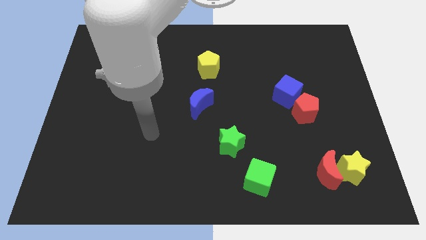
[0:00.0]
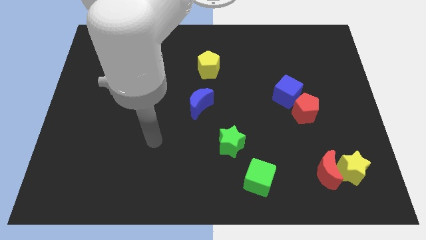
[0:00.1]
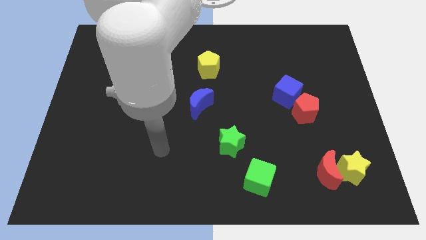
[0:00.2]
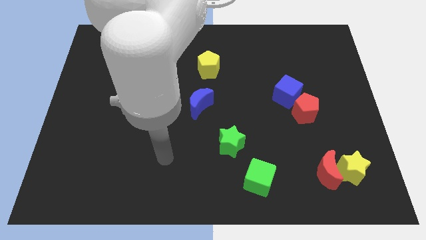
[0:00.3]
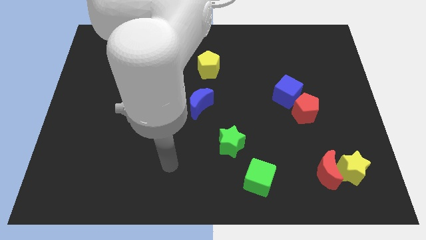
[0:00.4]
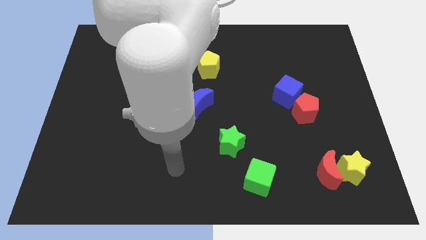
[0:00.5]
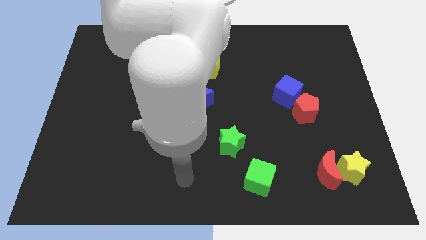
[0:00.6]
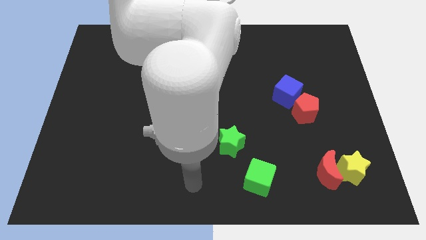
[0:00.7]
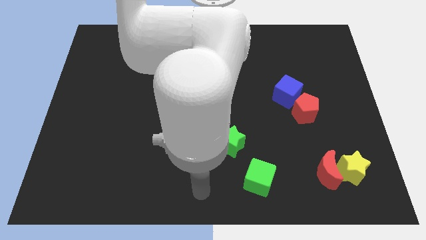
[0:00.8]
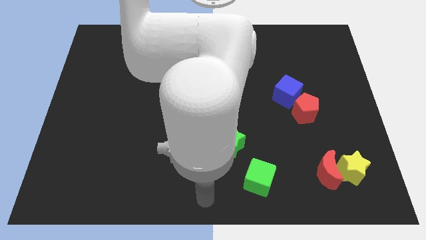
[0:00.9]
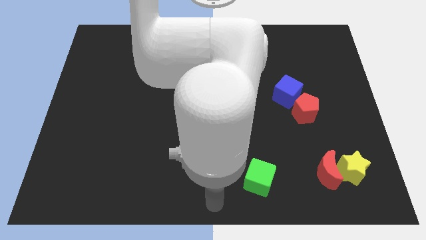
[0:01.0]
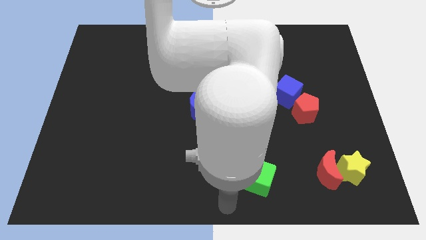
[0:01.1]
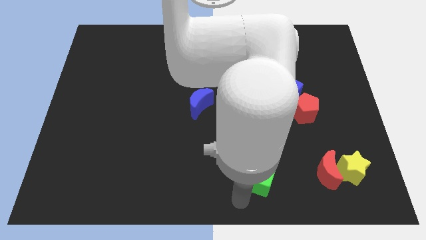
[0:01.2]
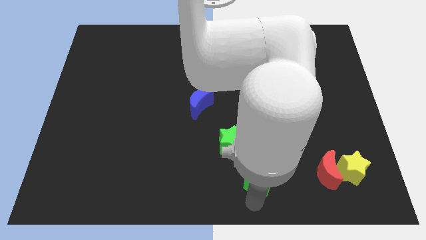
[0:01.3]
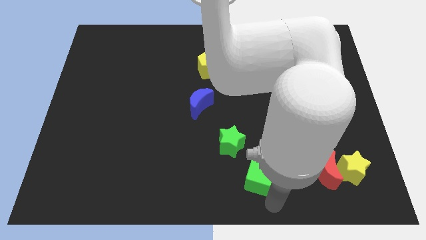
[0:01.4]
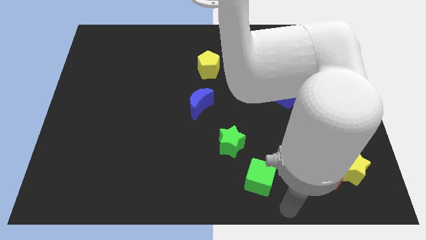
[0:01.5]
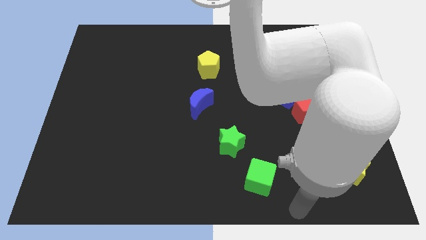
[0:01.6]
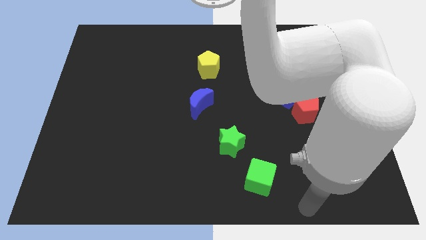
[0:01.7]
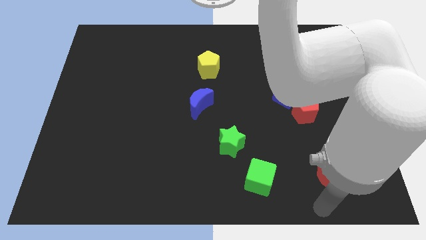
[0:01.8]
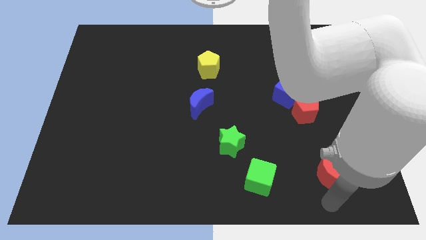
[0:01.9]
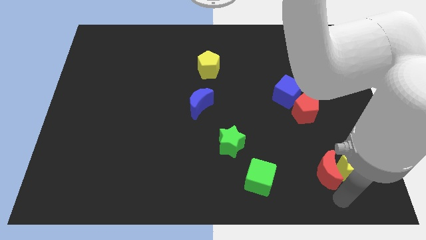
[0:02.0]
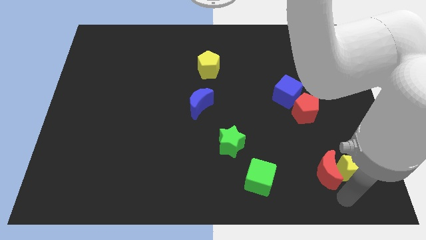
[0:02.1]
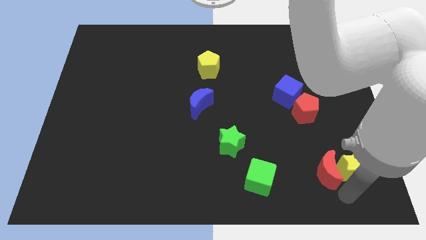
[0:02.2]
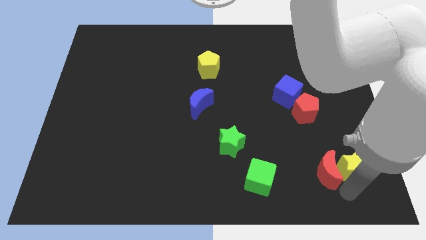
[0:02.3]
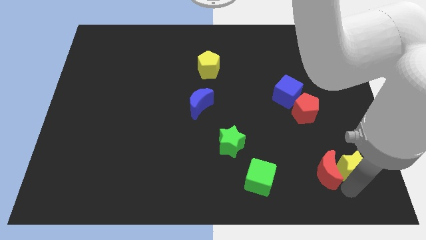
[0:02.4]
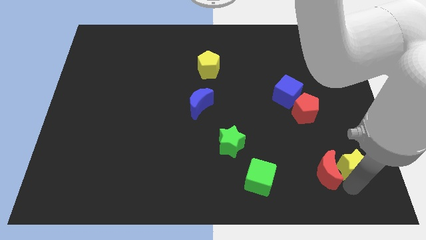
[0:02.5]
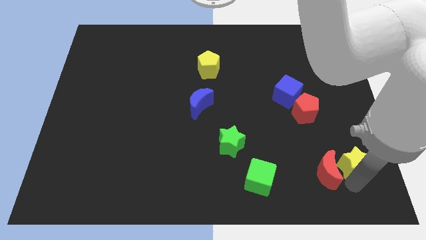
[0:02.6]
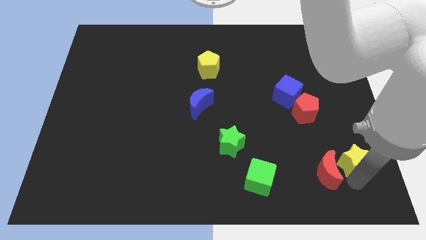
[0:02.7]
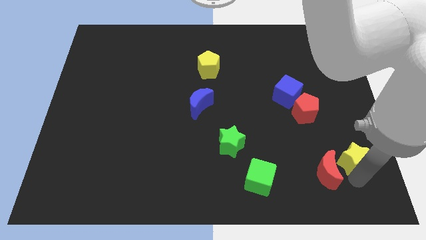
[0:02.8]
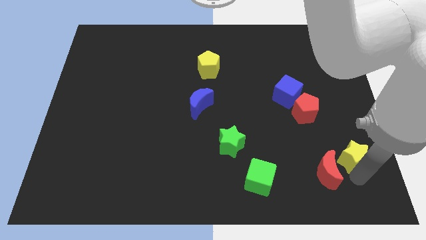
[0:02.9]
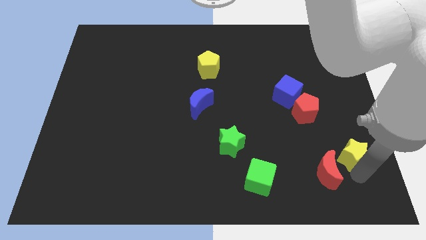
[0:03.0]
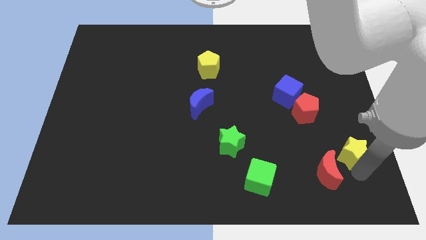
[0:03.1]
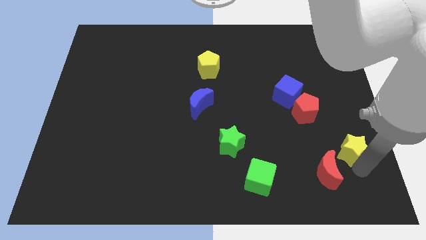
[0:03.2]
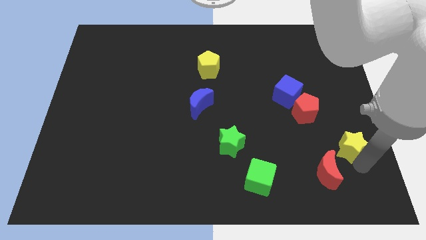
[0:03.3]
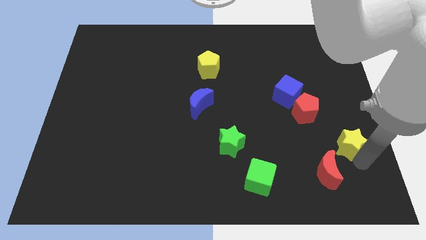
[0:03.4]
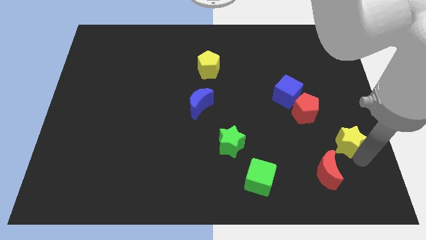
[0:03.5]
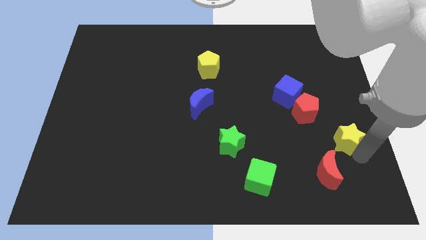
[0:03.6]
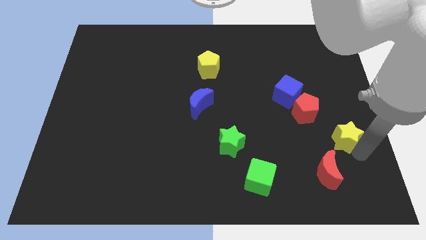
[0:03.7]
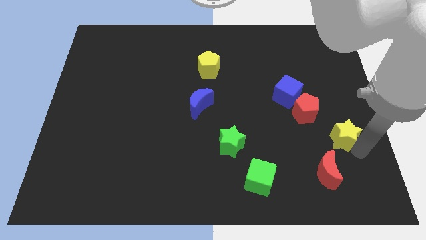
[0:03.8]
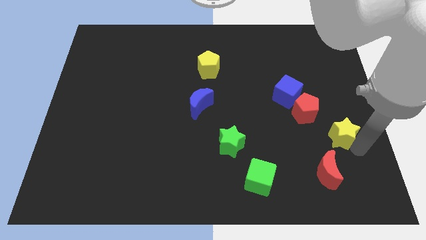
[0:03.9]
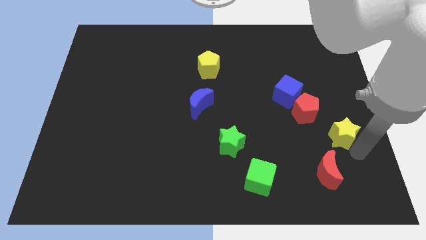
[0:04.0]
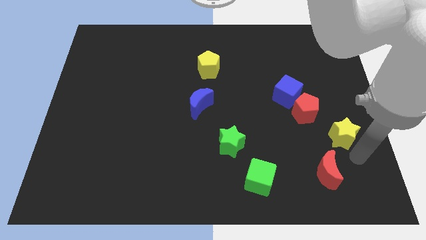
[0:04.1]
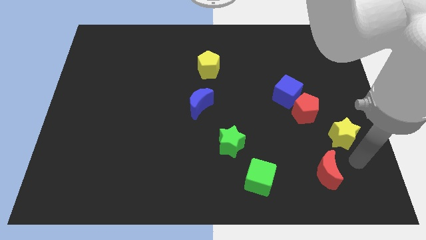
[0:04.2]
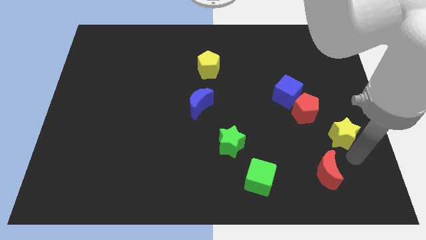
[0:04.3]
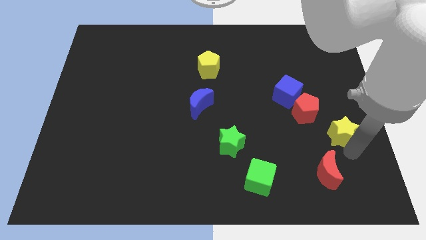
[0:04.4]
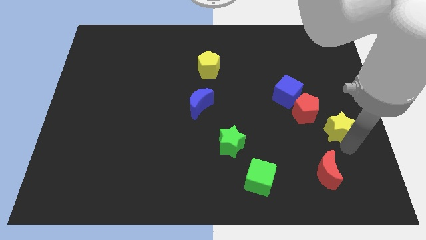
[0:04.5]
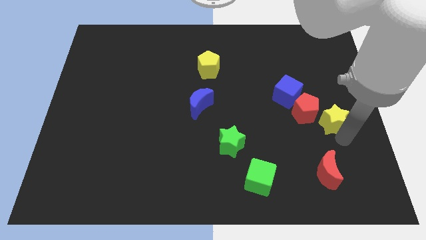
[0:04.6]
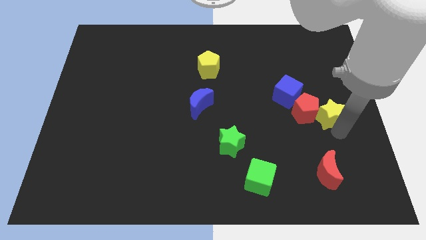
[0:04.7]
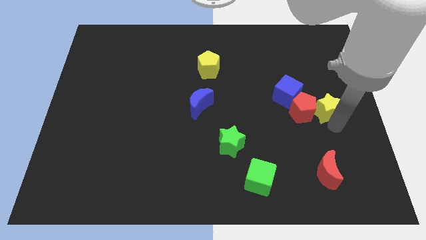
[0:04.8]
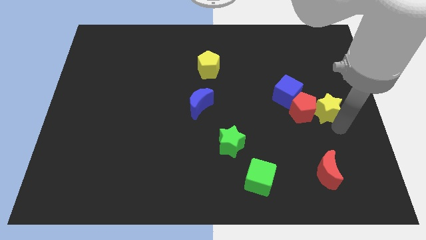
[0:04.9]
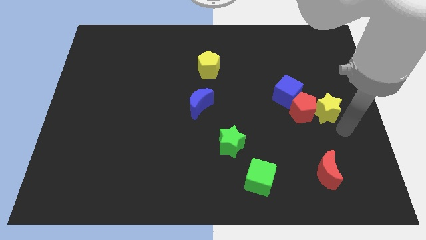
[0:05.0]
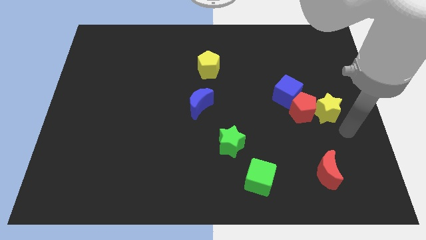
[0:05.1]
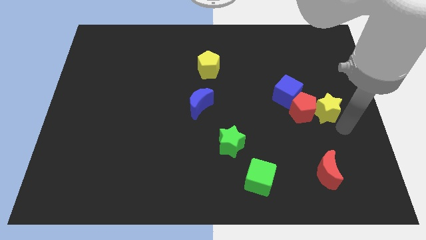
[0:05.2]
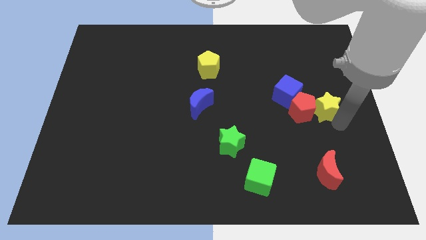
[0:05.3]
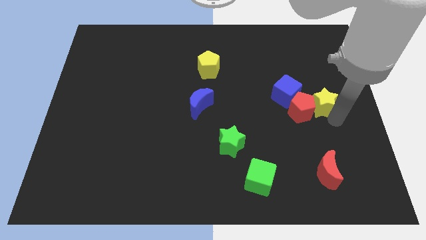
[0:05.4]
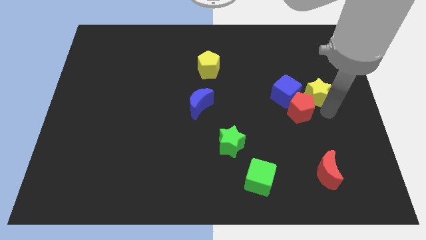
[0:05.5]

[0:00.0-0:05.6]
move the yellow star above the red pentagon

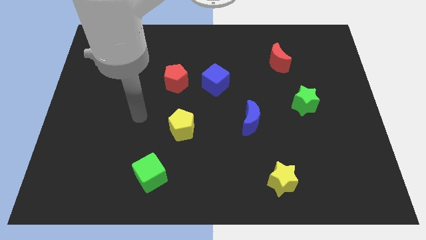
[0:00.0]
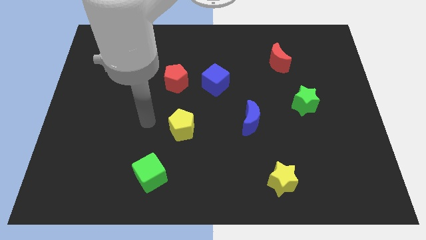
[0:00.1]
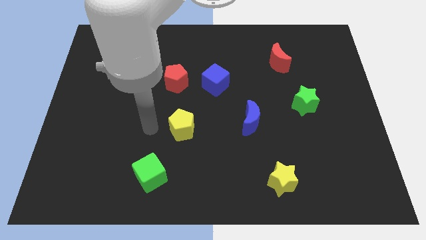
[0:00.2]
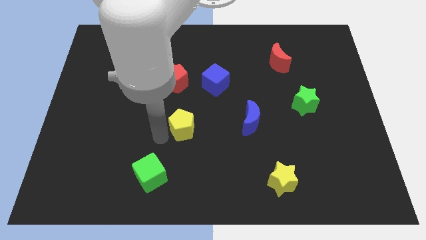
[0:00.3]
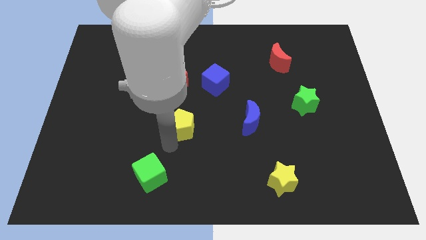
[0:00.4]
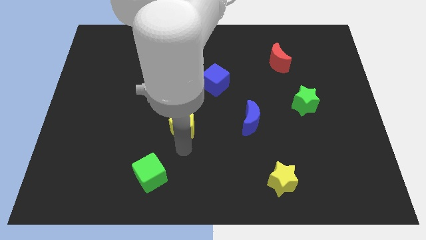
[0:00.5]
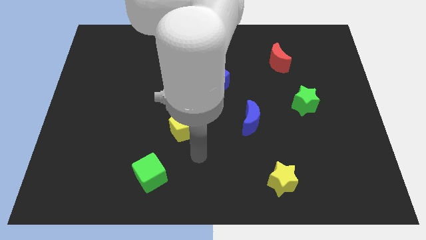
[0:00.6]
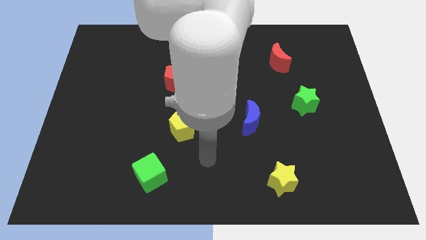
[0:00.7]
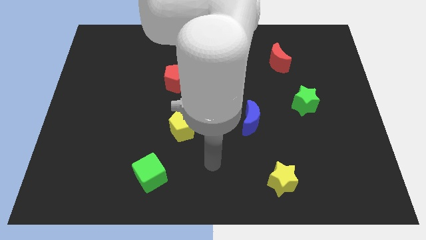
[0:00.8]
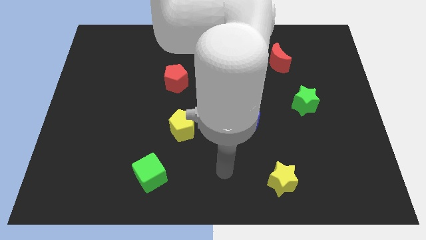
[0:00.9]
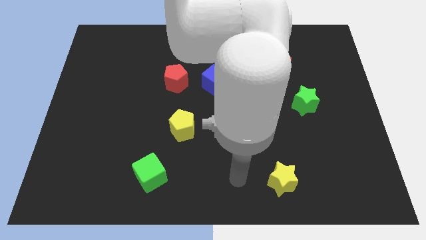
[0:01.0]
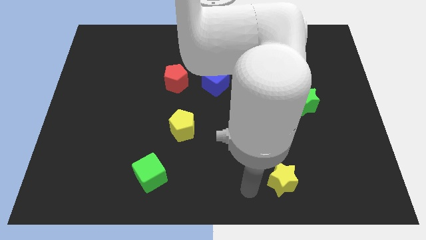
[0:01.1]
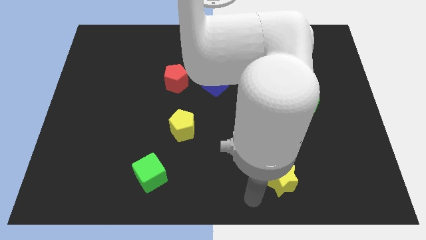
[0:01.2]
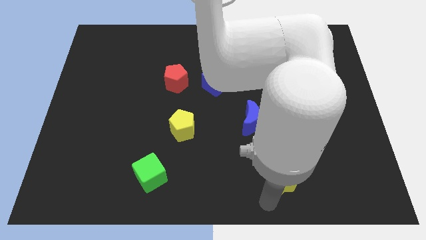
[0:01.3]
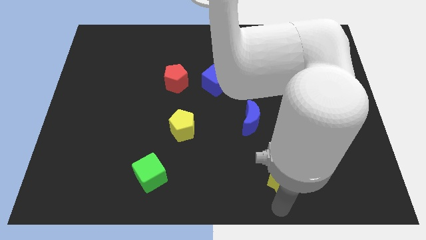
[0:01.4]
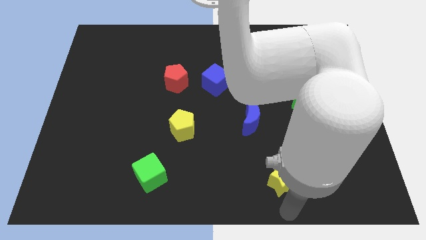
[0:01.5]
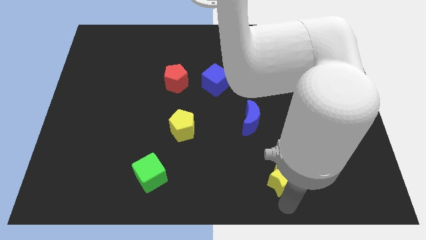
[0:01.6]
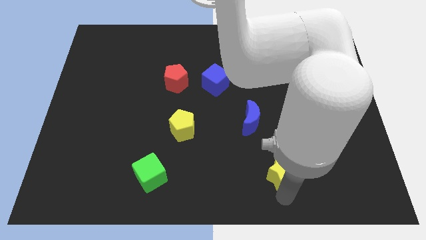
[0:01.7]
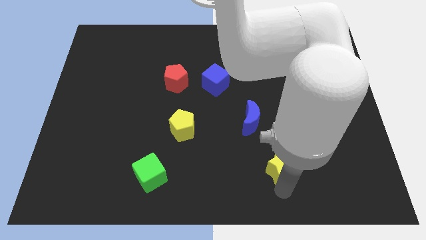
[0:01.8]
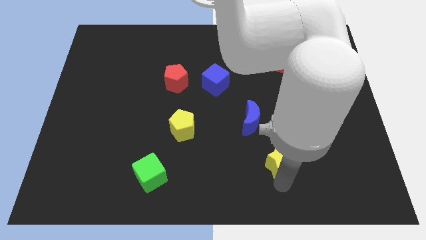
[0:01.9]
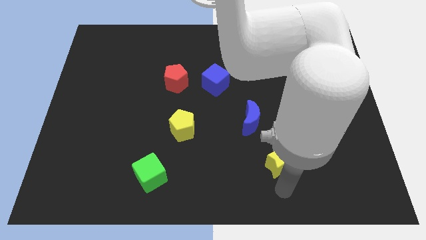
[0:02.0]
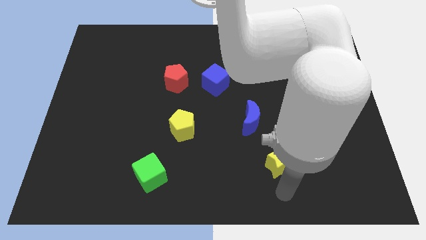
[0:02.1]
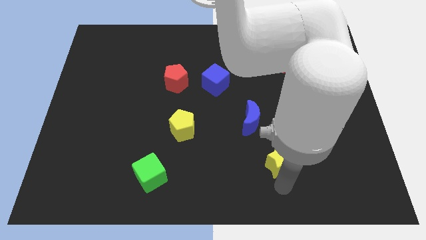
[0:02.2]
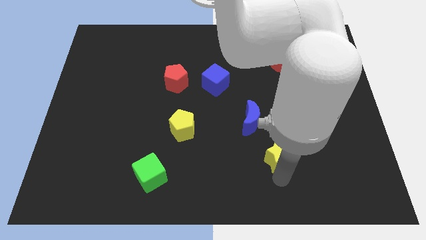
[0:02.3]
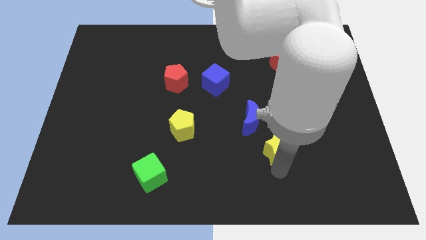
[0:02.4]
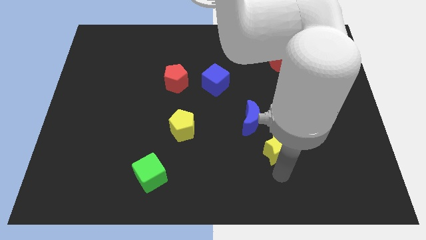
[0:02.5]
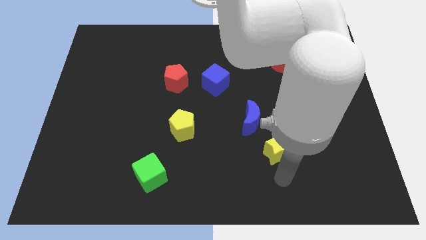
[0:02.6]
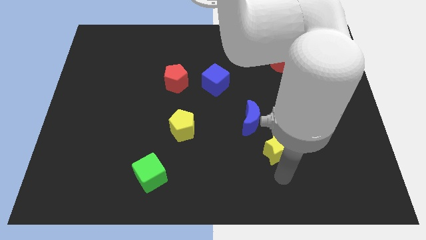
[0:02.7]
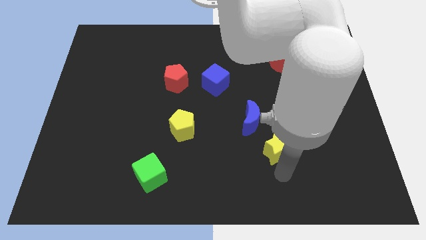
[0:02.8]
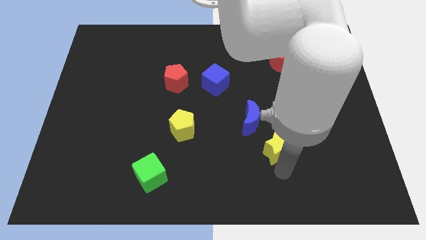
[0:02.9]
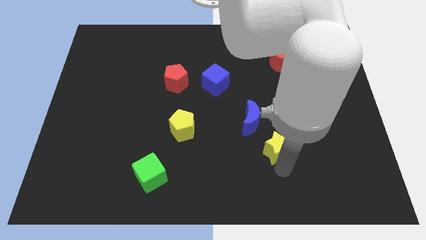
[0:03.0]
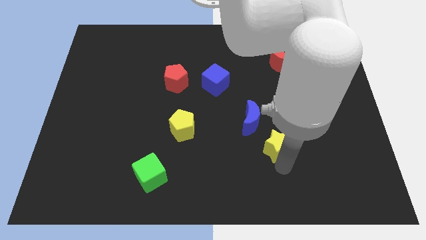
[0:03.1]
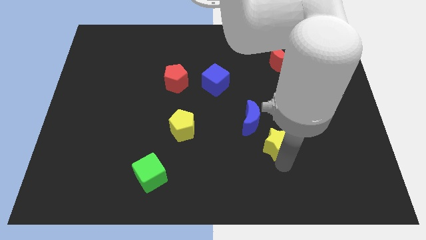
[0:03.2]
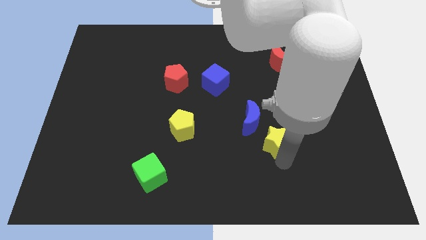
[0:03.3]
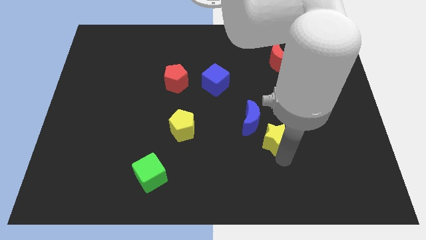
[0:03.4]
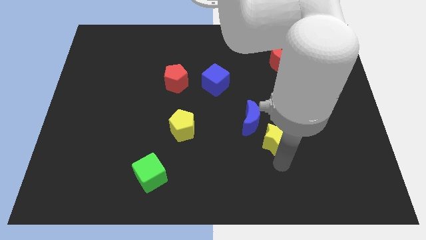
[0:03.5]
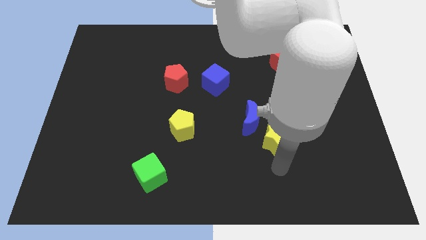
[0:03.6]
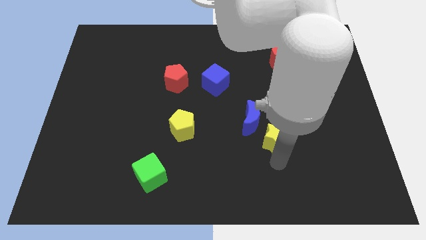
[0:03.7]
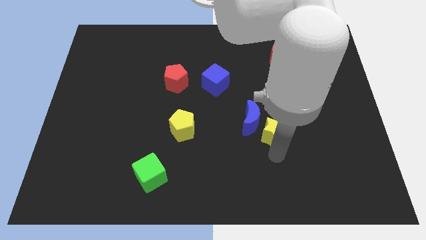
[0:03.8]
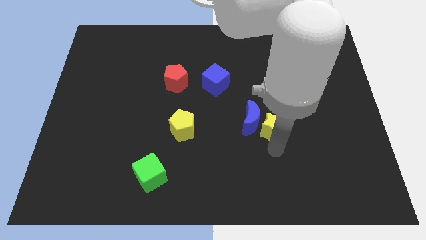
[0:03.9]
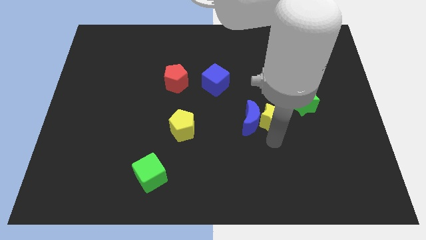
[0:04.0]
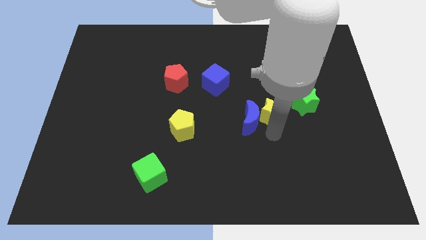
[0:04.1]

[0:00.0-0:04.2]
slide the yellow star to the left side of the green star
